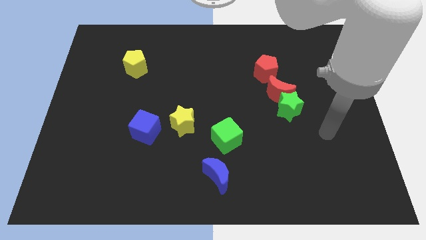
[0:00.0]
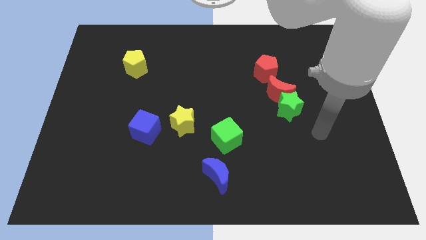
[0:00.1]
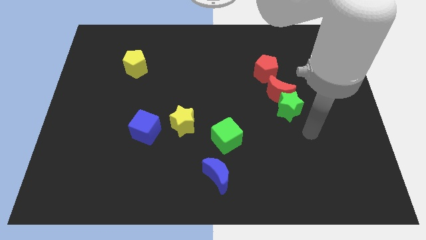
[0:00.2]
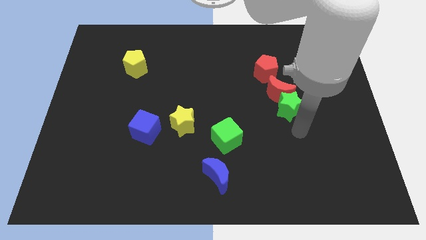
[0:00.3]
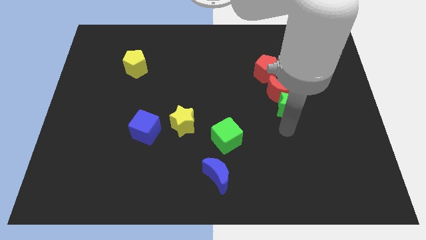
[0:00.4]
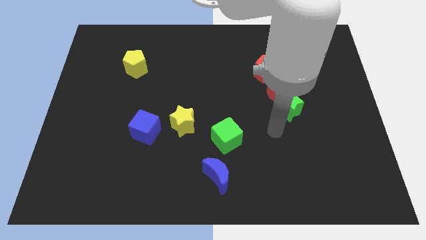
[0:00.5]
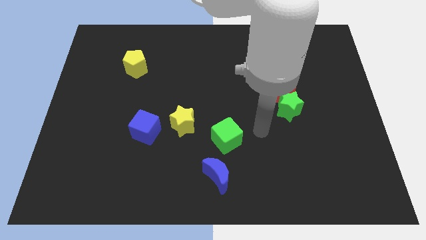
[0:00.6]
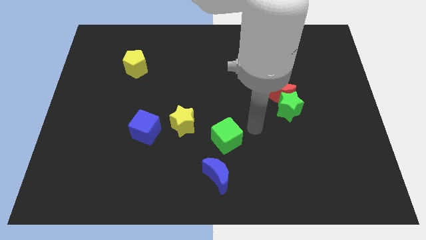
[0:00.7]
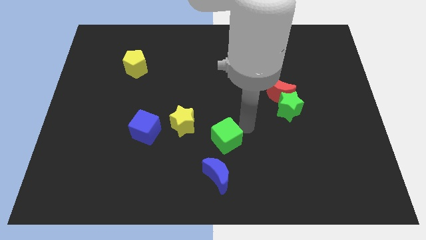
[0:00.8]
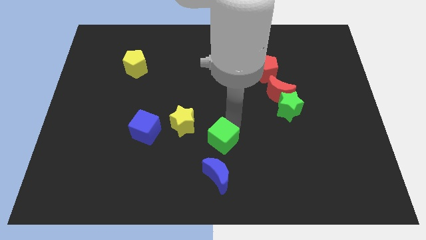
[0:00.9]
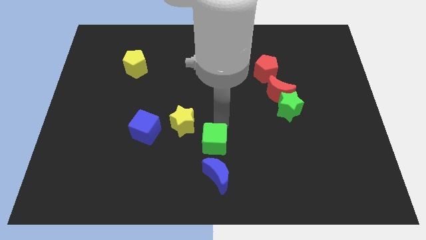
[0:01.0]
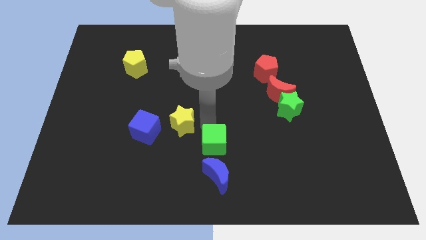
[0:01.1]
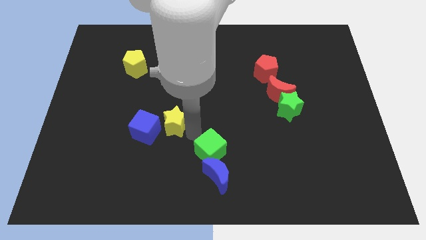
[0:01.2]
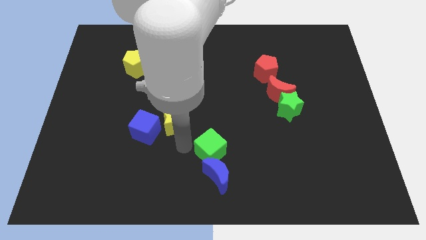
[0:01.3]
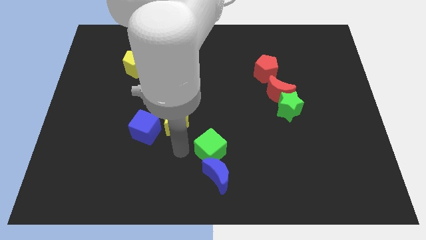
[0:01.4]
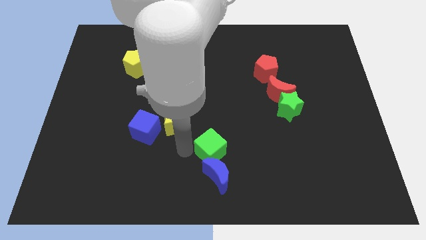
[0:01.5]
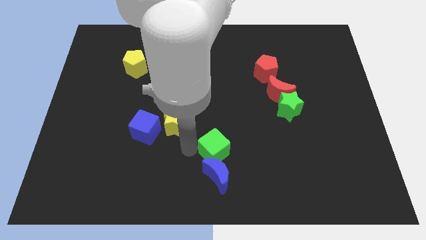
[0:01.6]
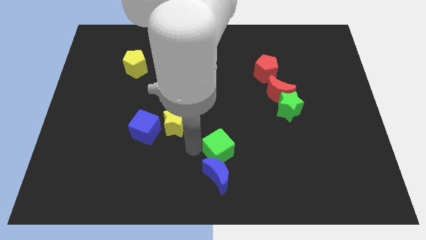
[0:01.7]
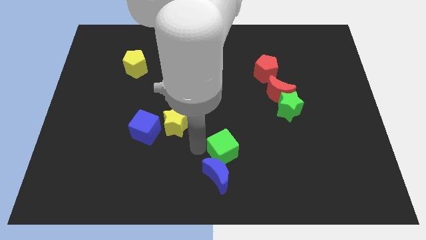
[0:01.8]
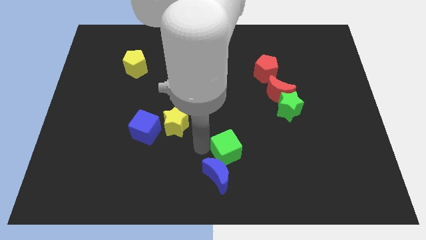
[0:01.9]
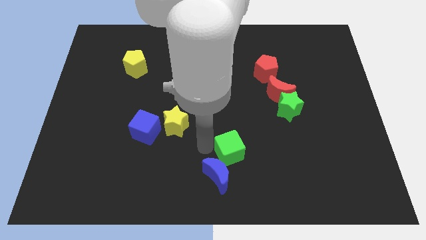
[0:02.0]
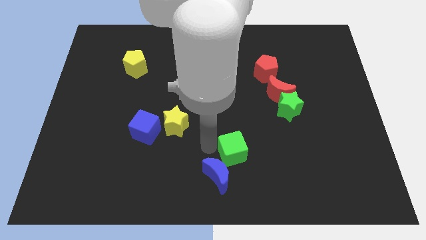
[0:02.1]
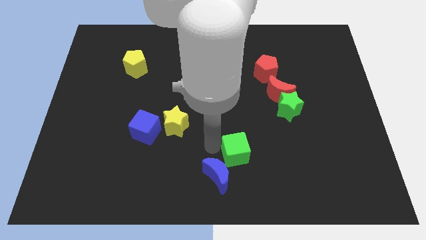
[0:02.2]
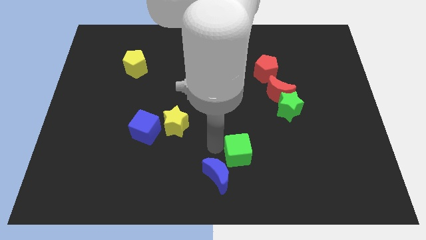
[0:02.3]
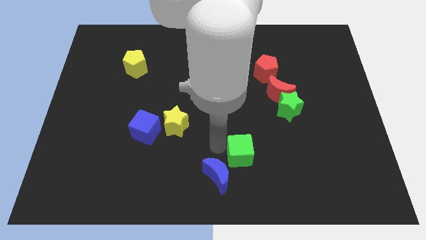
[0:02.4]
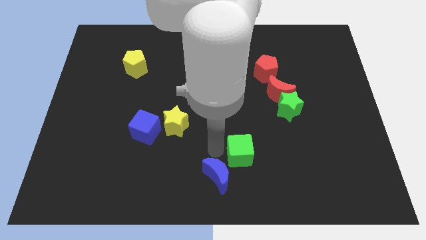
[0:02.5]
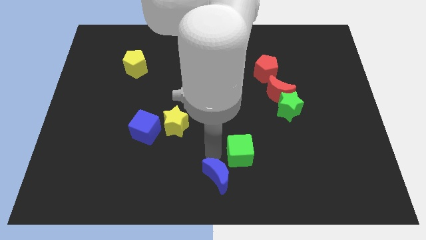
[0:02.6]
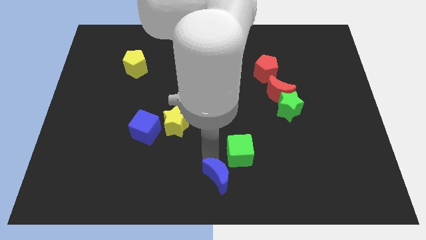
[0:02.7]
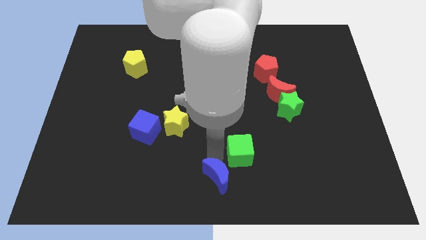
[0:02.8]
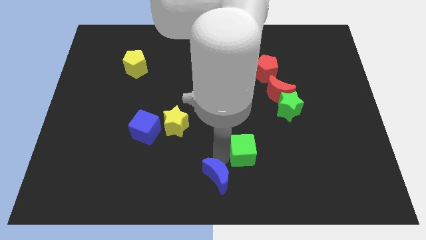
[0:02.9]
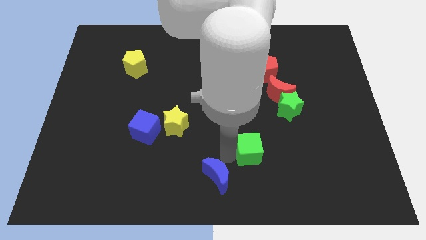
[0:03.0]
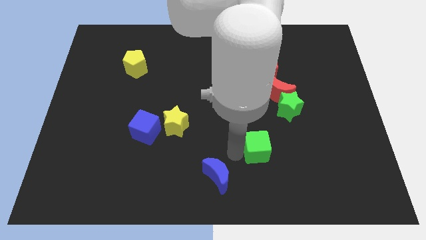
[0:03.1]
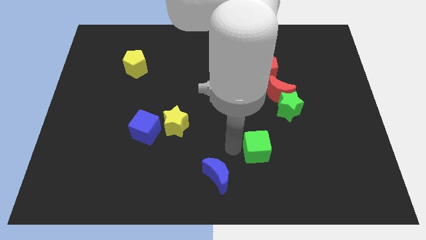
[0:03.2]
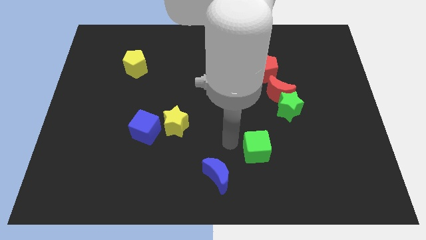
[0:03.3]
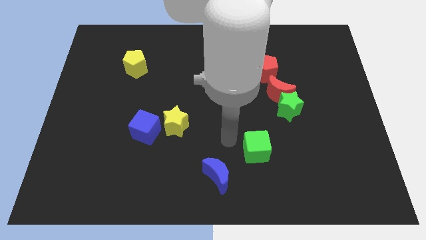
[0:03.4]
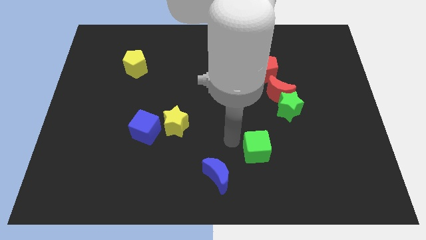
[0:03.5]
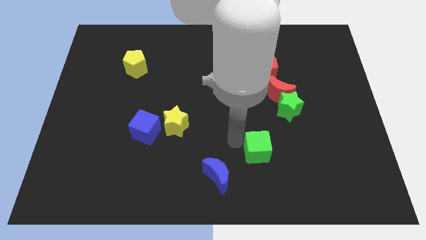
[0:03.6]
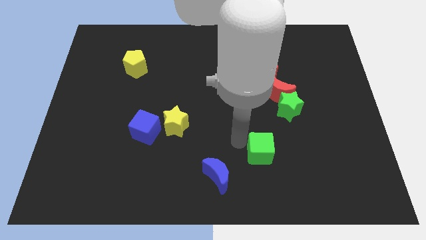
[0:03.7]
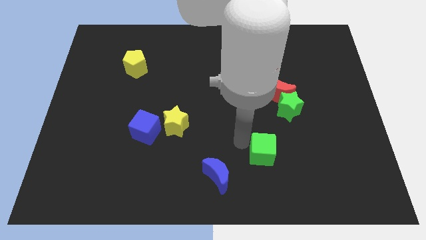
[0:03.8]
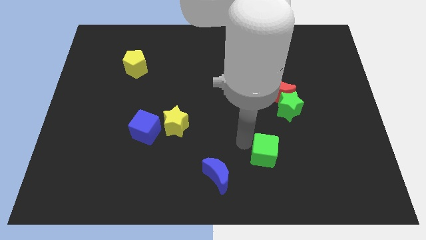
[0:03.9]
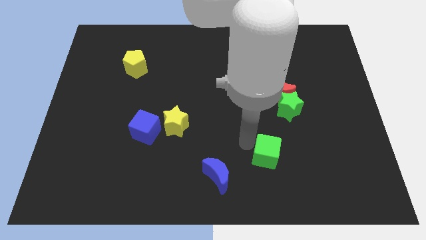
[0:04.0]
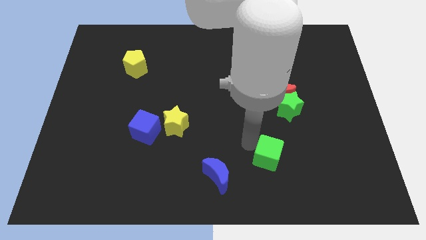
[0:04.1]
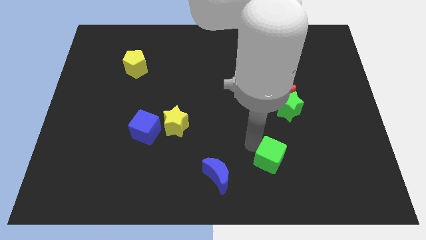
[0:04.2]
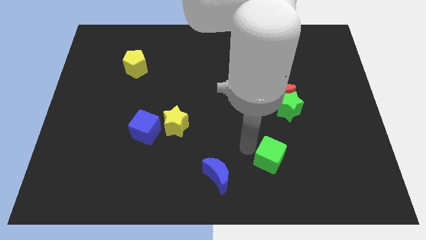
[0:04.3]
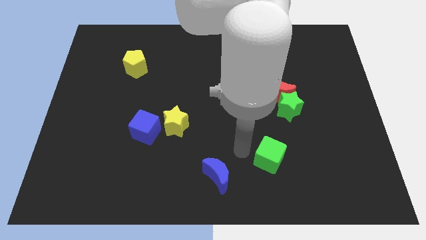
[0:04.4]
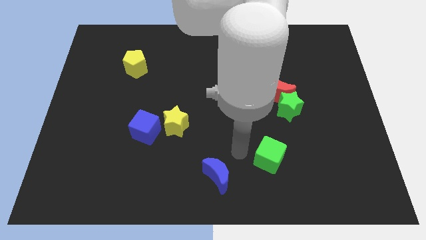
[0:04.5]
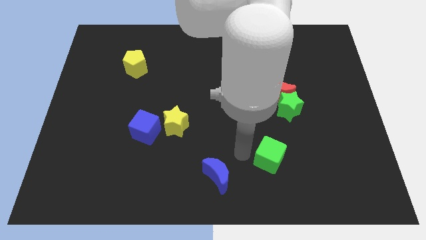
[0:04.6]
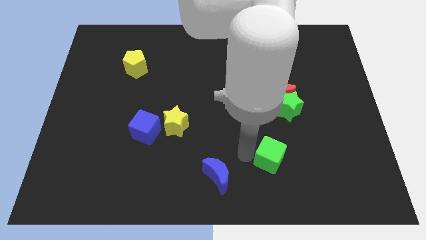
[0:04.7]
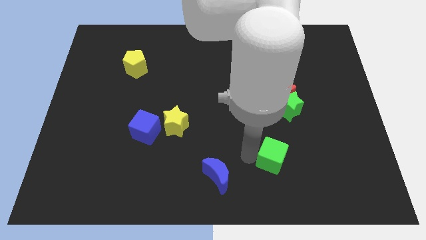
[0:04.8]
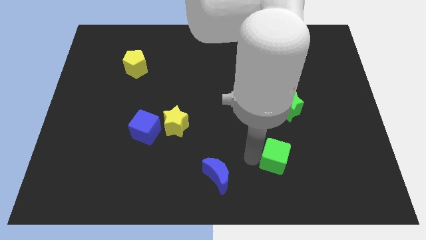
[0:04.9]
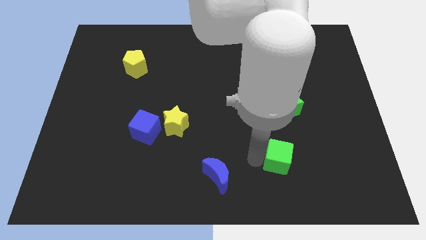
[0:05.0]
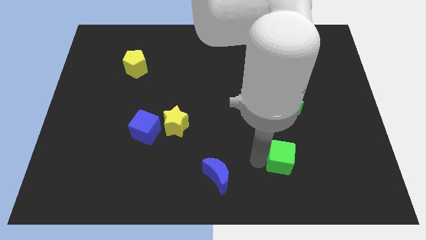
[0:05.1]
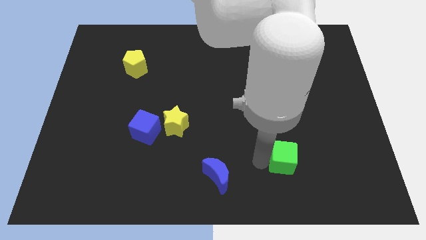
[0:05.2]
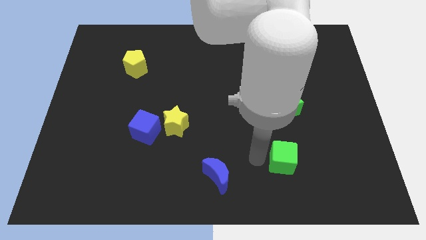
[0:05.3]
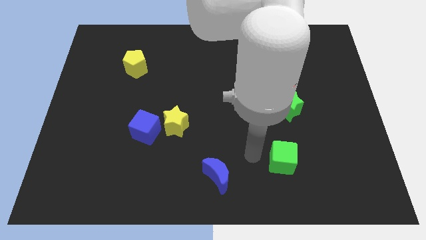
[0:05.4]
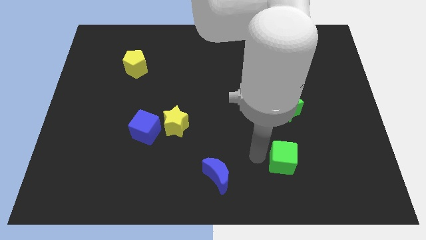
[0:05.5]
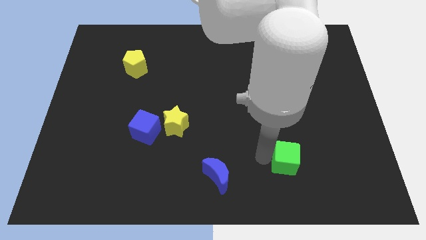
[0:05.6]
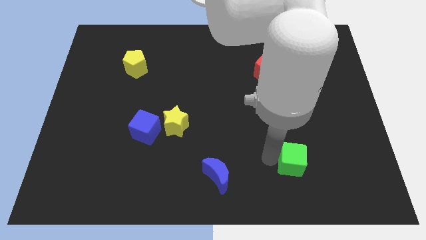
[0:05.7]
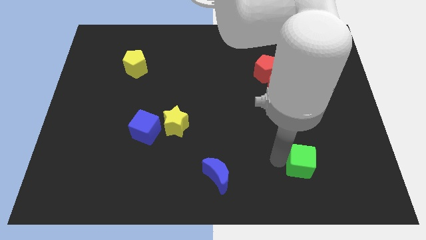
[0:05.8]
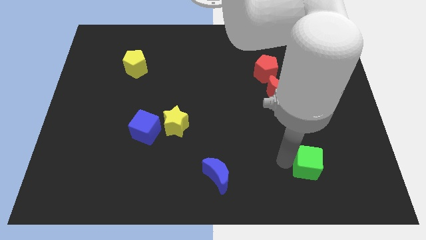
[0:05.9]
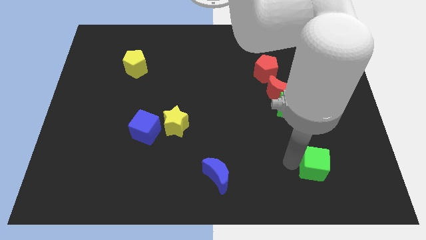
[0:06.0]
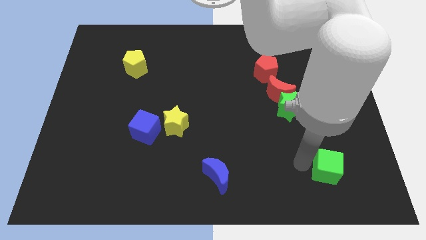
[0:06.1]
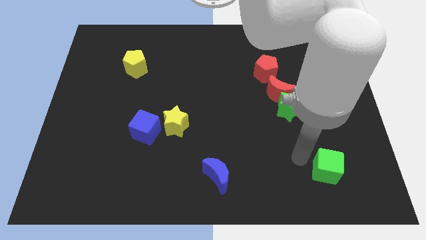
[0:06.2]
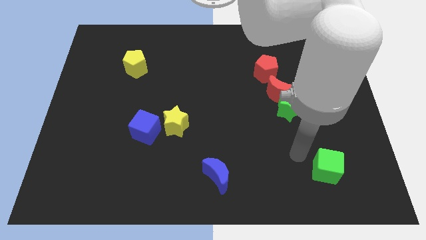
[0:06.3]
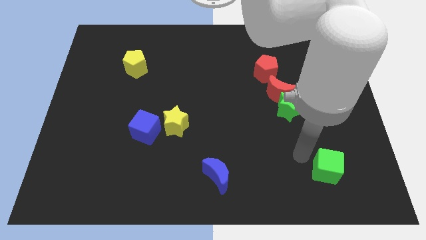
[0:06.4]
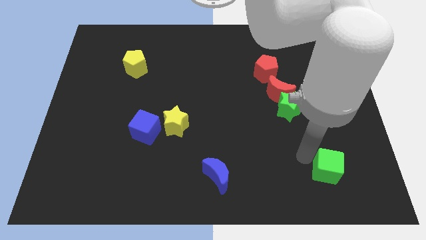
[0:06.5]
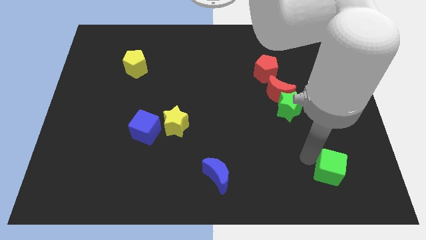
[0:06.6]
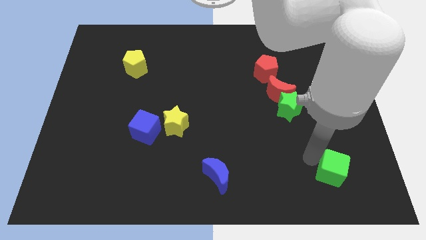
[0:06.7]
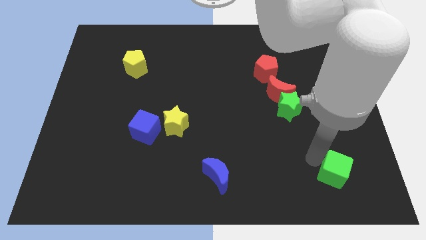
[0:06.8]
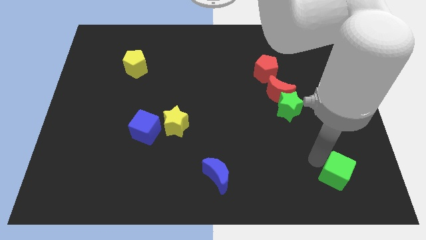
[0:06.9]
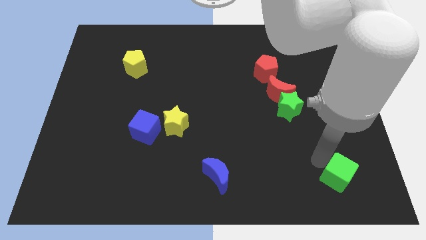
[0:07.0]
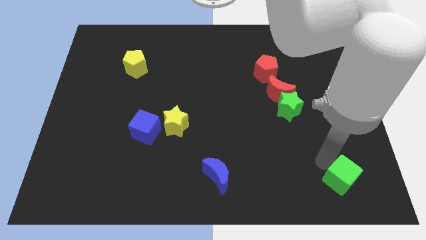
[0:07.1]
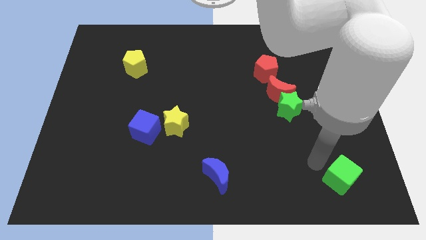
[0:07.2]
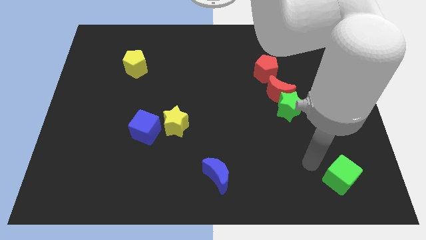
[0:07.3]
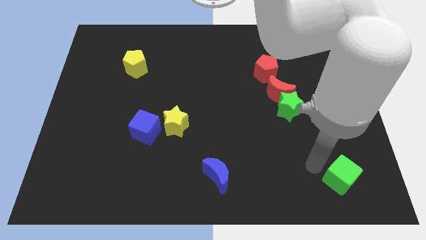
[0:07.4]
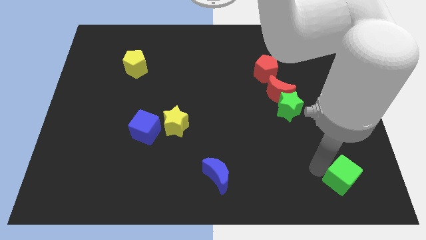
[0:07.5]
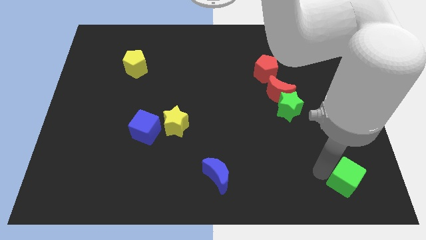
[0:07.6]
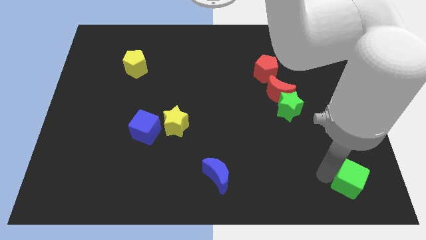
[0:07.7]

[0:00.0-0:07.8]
slide the green cube to the bottom right
